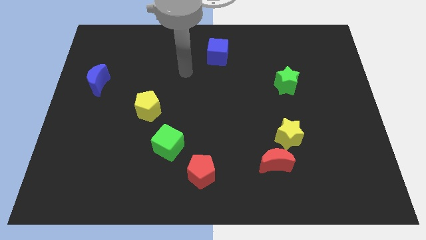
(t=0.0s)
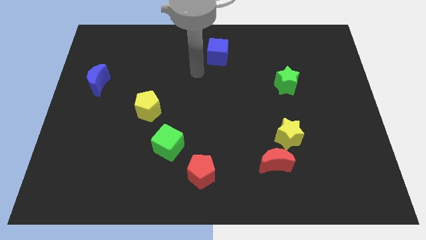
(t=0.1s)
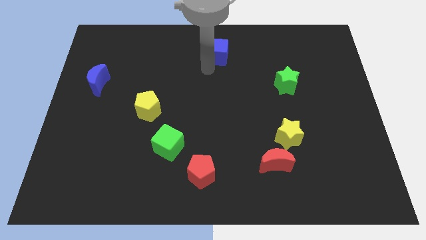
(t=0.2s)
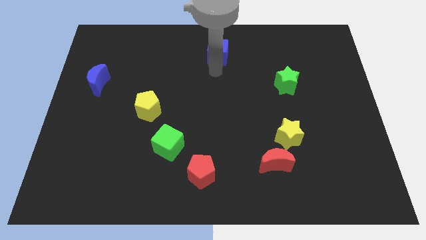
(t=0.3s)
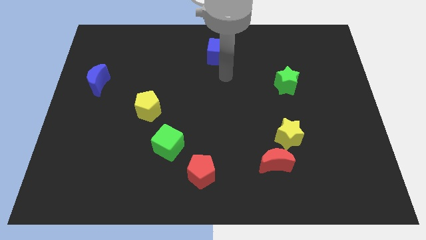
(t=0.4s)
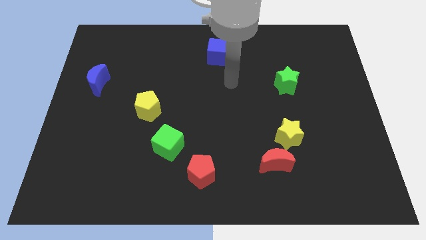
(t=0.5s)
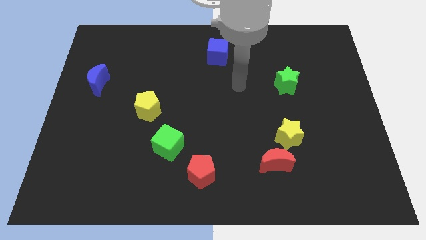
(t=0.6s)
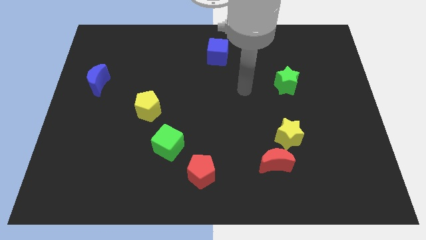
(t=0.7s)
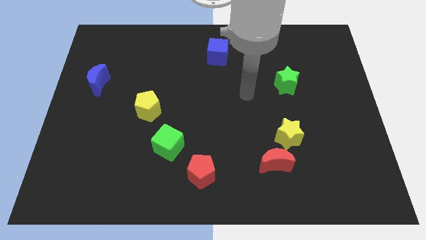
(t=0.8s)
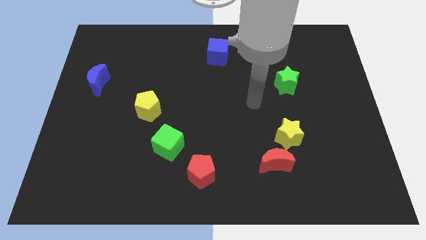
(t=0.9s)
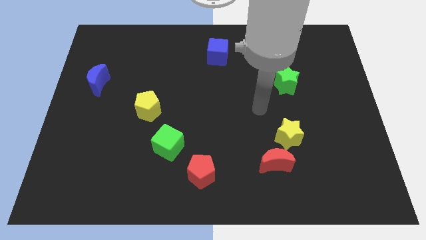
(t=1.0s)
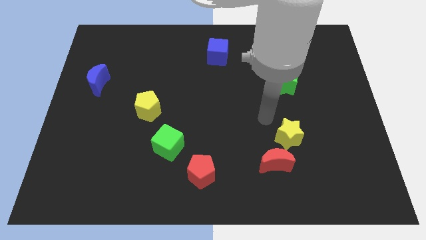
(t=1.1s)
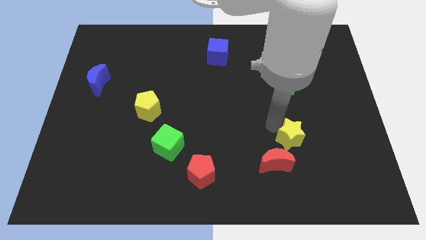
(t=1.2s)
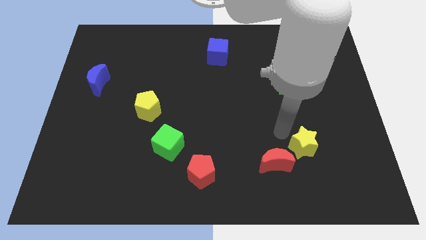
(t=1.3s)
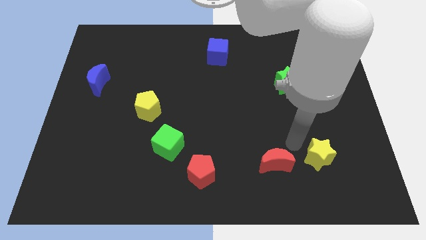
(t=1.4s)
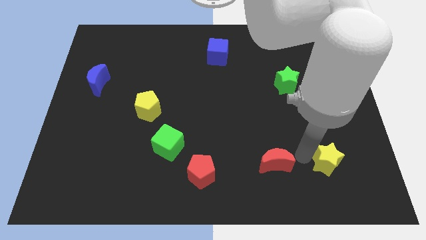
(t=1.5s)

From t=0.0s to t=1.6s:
pull the red moon apart from the yellow star

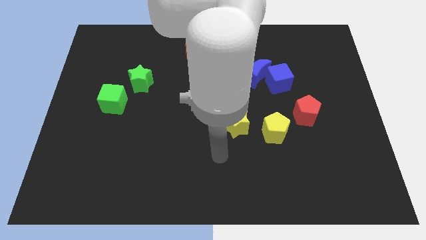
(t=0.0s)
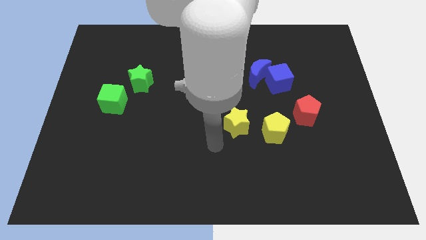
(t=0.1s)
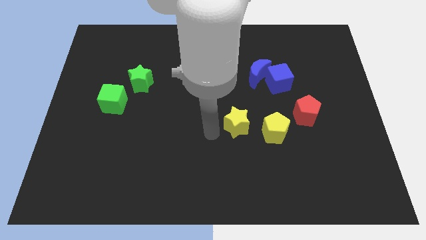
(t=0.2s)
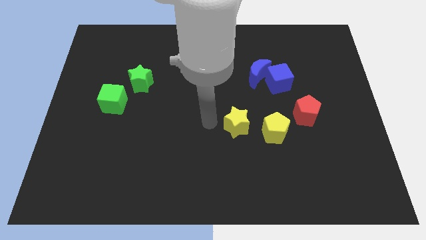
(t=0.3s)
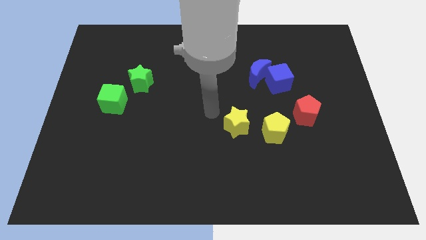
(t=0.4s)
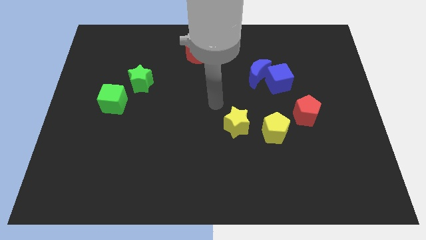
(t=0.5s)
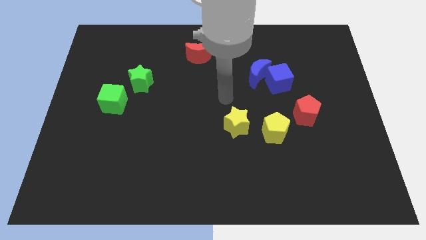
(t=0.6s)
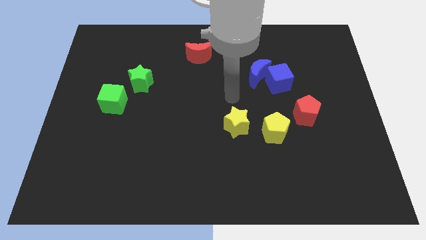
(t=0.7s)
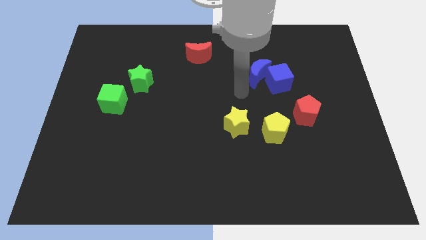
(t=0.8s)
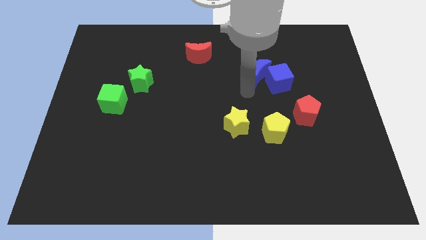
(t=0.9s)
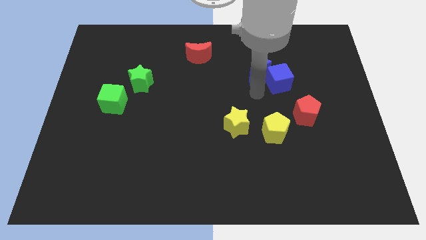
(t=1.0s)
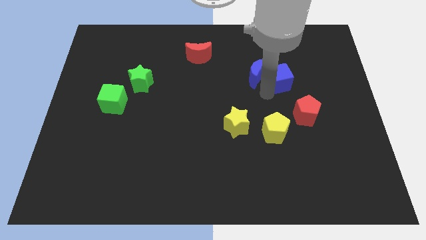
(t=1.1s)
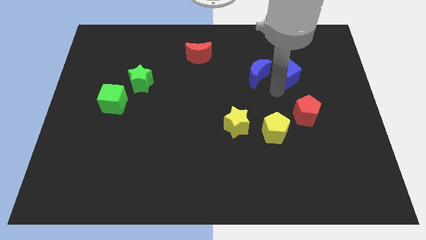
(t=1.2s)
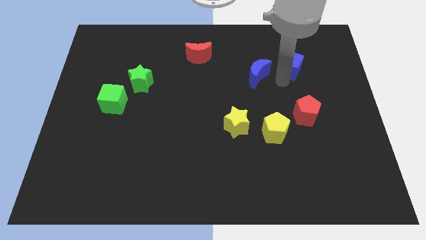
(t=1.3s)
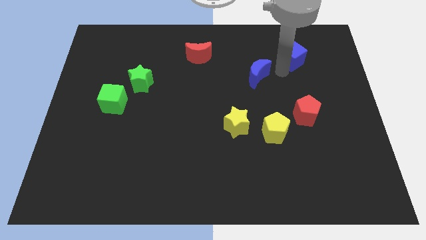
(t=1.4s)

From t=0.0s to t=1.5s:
separate the blue moon from the blue cube

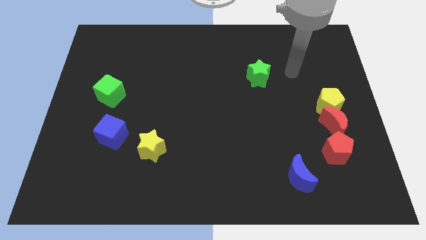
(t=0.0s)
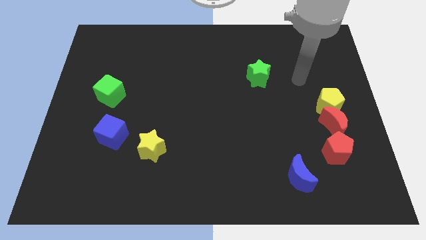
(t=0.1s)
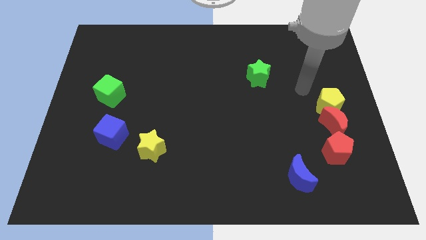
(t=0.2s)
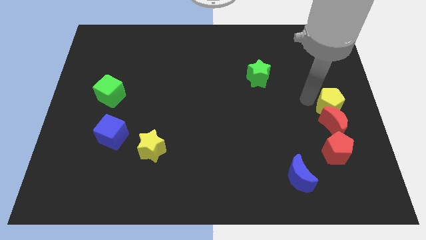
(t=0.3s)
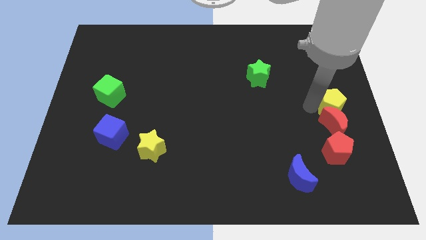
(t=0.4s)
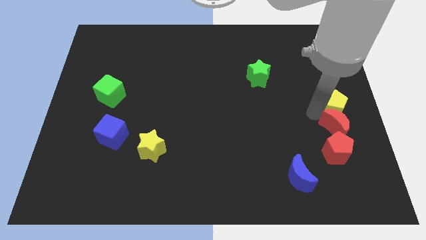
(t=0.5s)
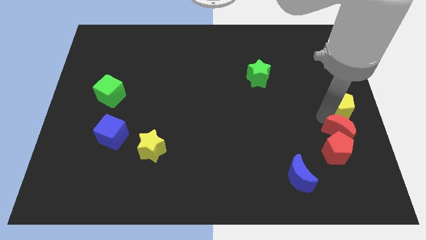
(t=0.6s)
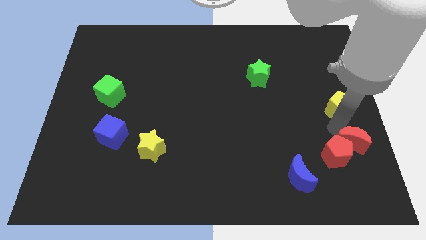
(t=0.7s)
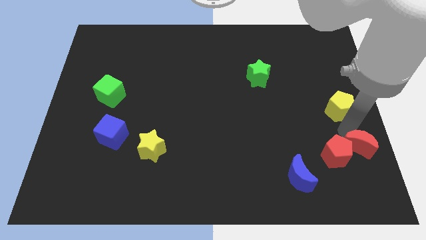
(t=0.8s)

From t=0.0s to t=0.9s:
separate the yellow pentagon from the red moon

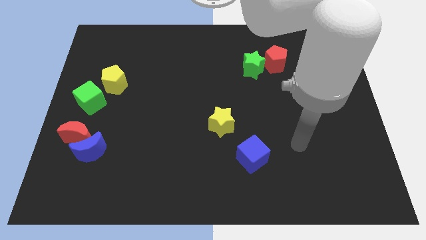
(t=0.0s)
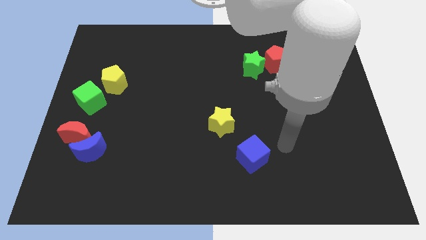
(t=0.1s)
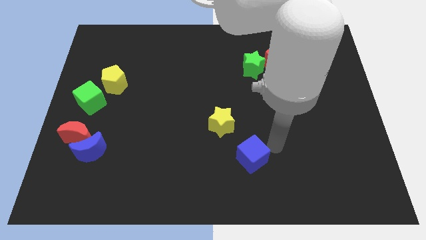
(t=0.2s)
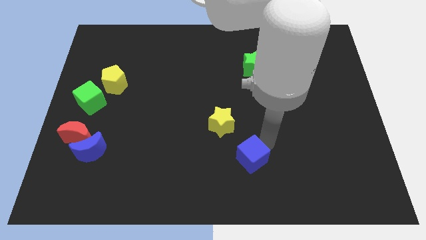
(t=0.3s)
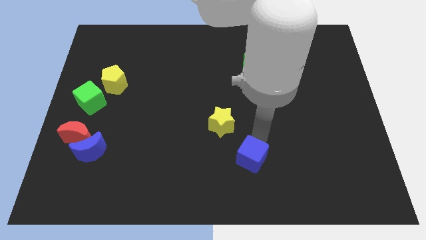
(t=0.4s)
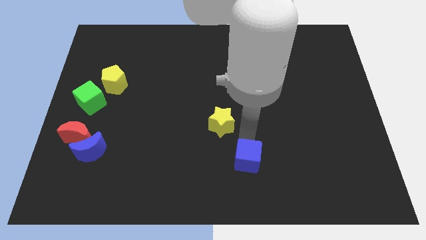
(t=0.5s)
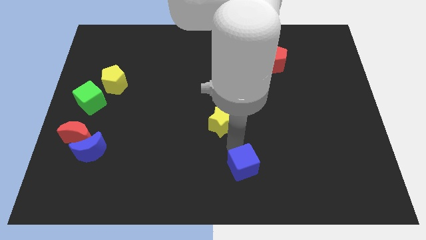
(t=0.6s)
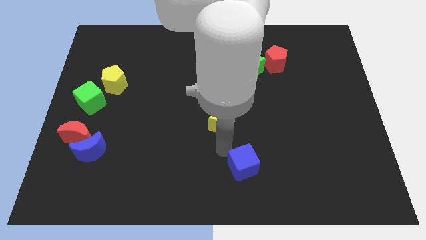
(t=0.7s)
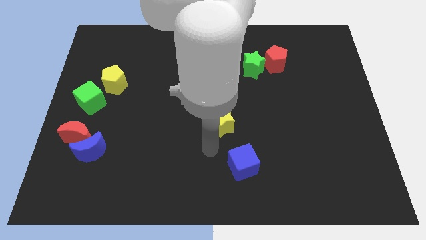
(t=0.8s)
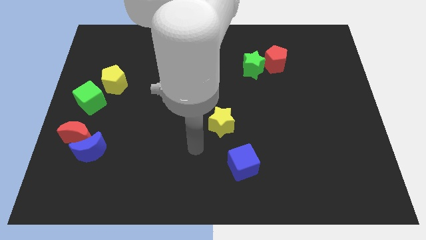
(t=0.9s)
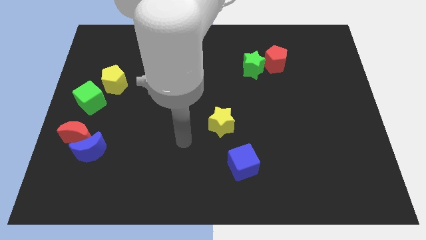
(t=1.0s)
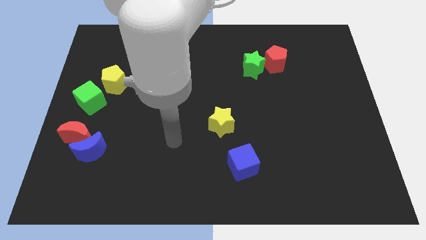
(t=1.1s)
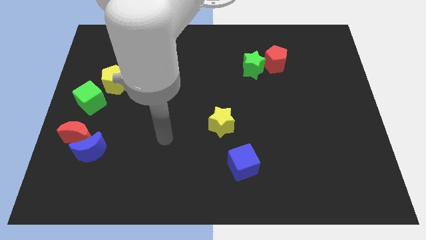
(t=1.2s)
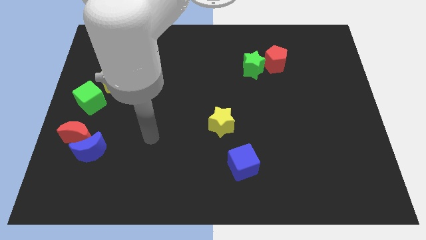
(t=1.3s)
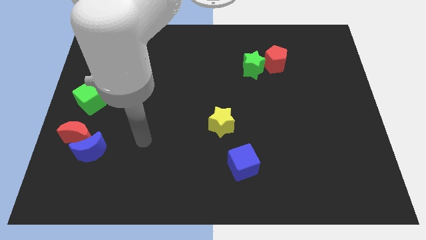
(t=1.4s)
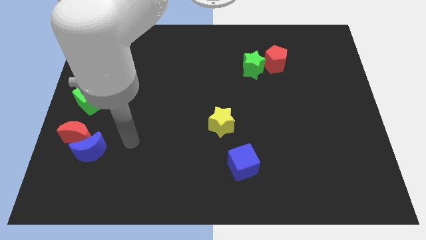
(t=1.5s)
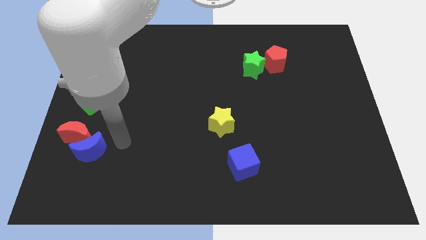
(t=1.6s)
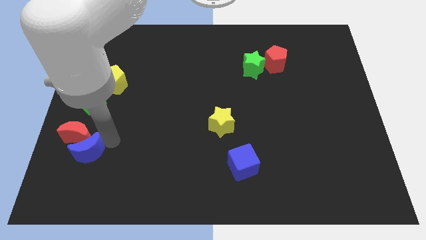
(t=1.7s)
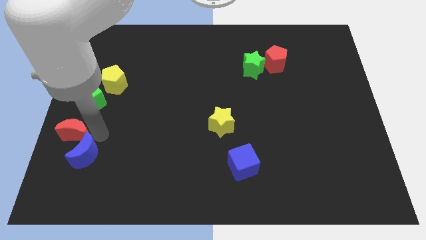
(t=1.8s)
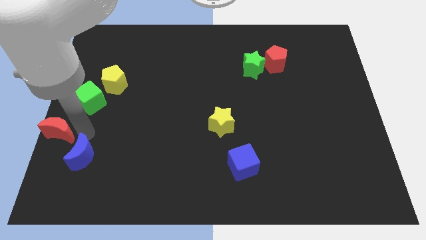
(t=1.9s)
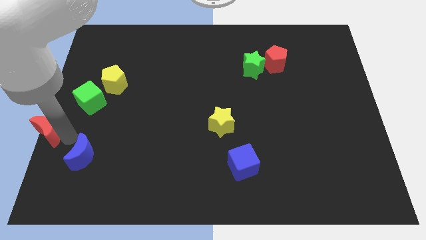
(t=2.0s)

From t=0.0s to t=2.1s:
separate the blue moon from the red moon

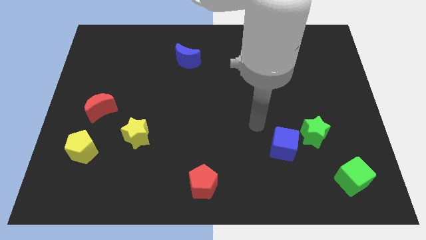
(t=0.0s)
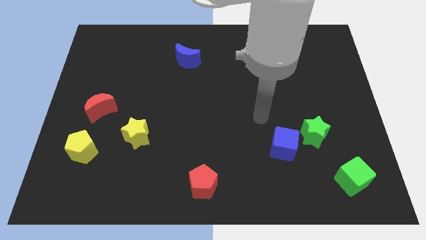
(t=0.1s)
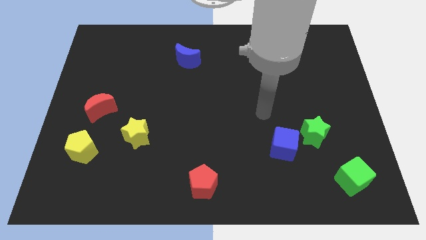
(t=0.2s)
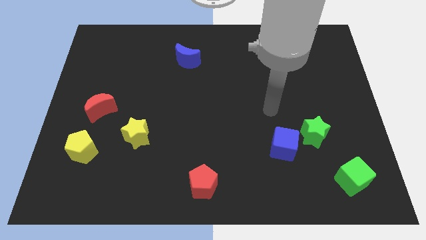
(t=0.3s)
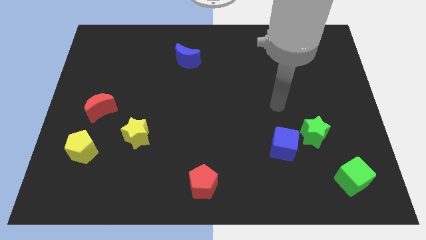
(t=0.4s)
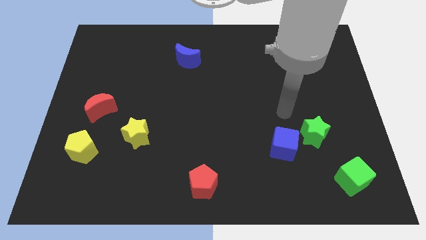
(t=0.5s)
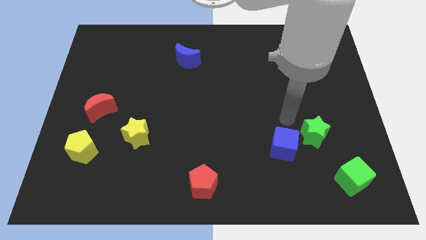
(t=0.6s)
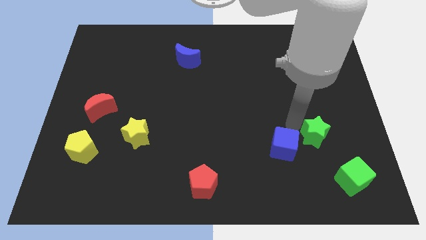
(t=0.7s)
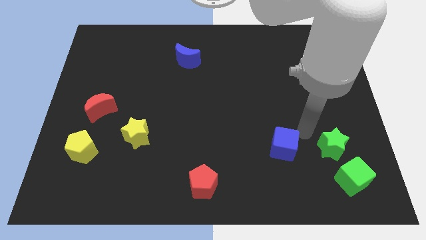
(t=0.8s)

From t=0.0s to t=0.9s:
pull the blue cube apart from the green star

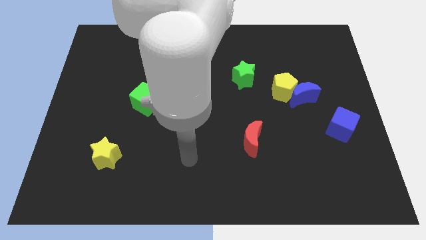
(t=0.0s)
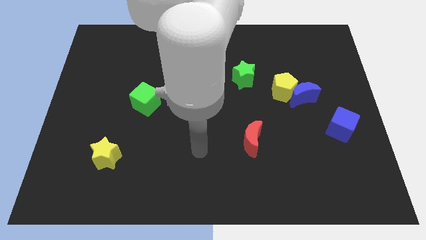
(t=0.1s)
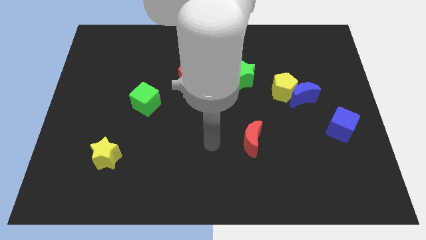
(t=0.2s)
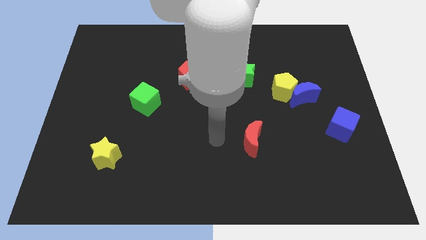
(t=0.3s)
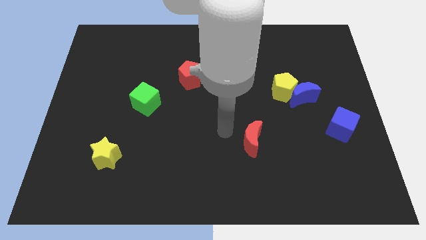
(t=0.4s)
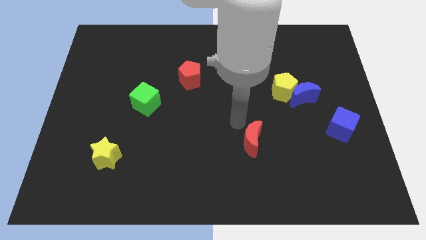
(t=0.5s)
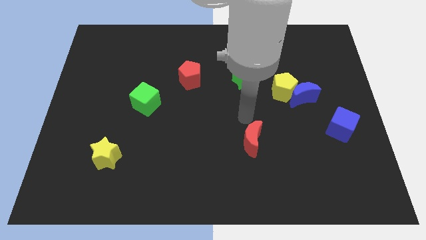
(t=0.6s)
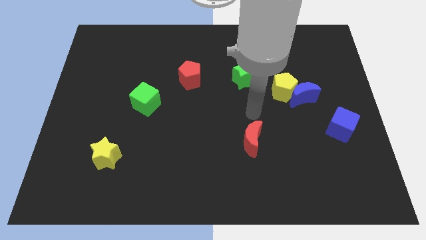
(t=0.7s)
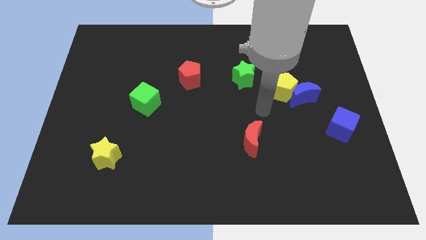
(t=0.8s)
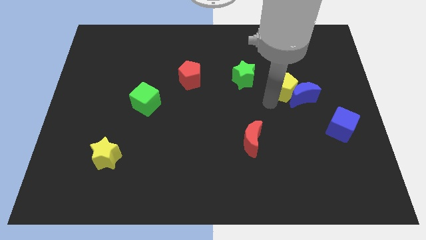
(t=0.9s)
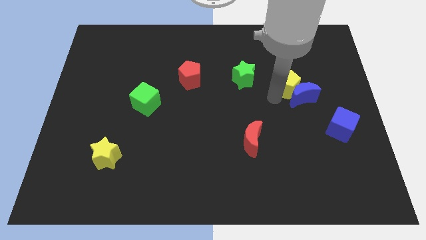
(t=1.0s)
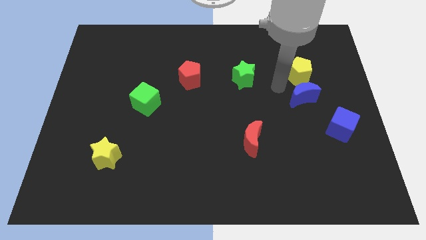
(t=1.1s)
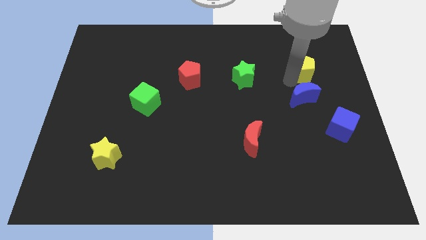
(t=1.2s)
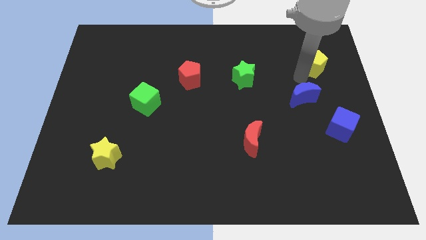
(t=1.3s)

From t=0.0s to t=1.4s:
separate the blue moon from the yellow pentagon

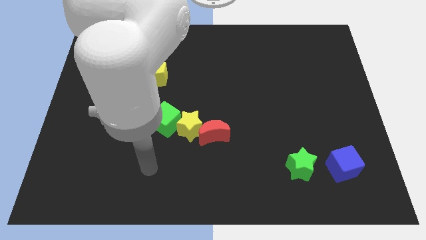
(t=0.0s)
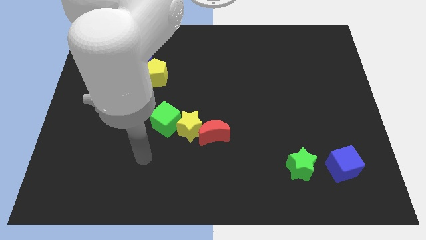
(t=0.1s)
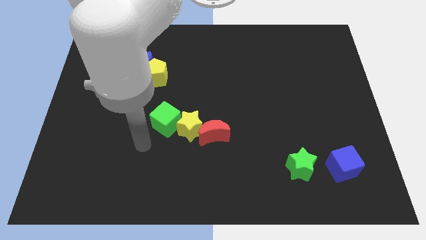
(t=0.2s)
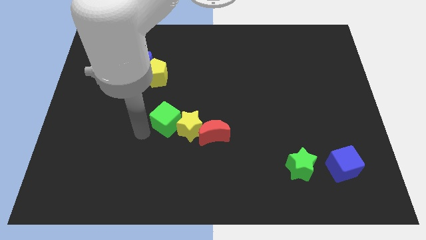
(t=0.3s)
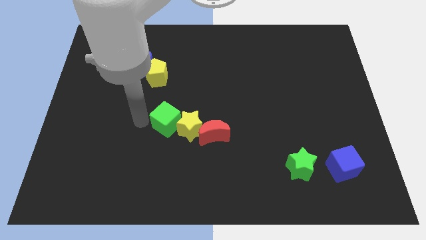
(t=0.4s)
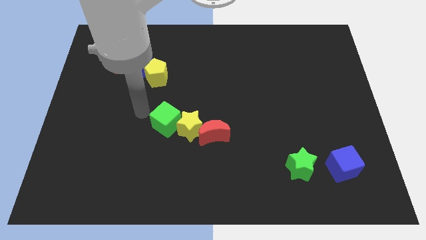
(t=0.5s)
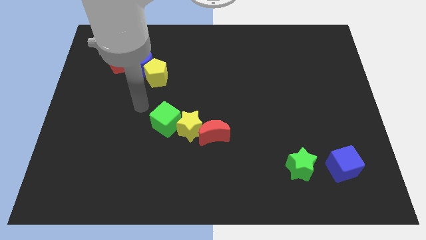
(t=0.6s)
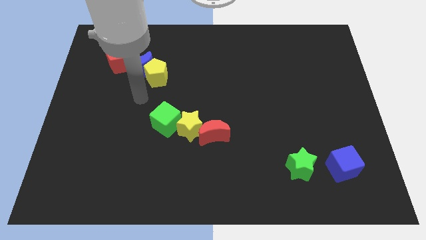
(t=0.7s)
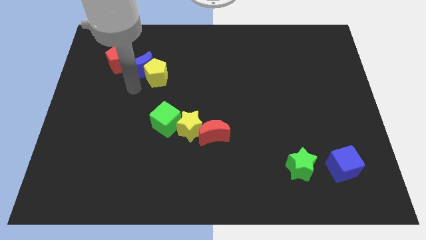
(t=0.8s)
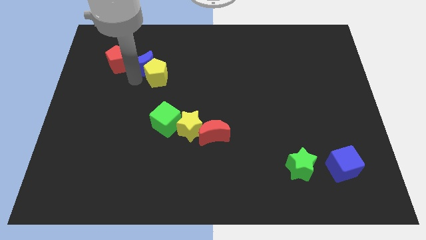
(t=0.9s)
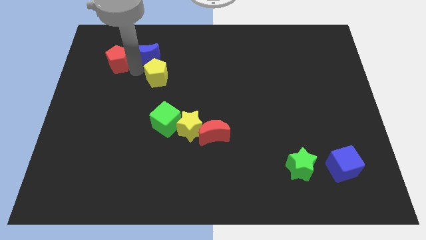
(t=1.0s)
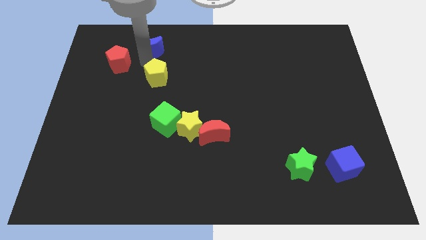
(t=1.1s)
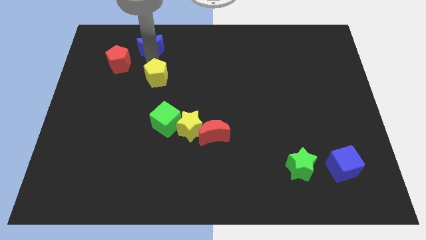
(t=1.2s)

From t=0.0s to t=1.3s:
move the yellow pentagon away from the blue moon
